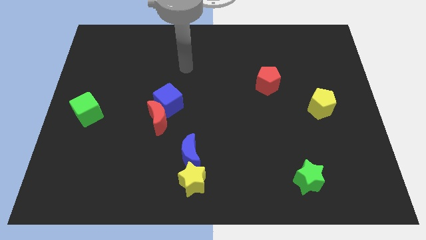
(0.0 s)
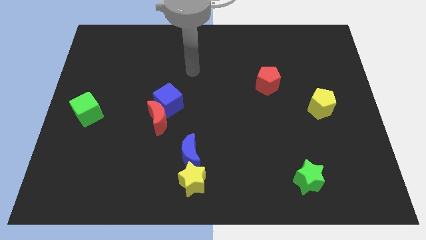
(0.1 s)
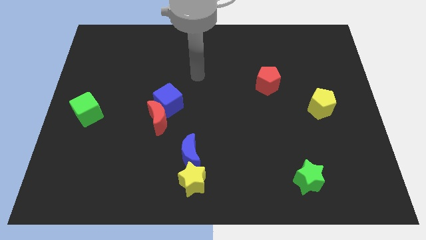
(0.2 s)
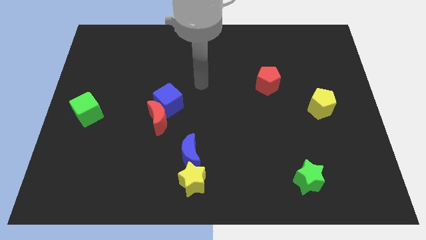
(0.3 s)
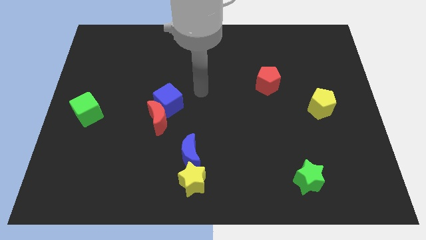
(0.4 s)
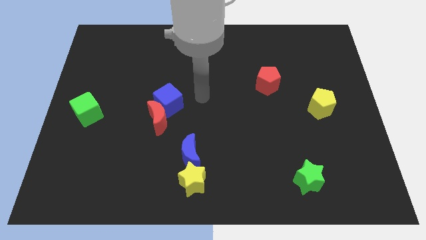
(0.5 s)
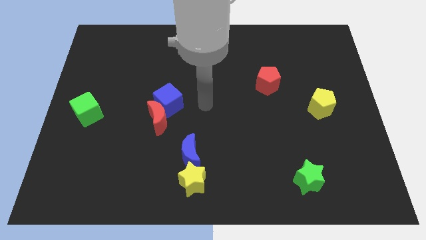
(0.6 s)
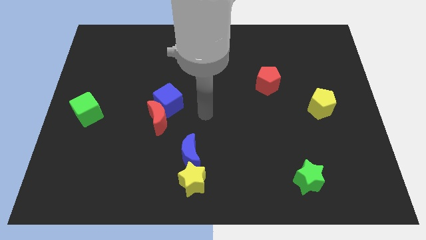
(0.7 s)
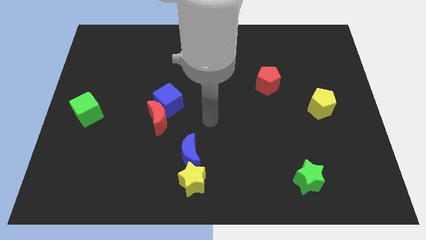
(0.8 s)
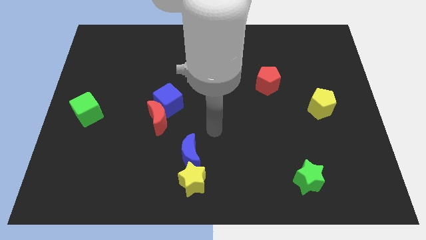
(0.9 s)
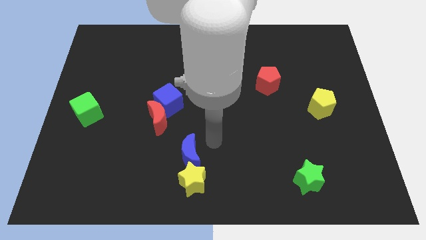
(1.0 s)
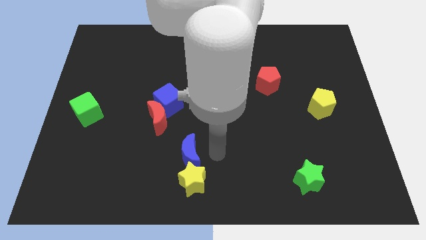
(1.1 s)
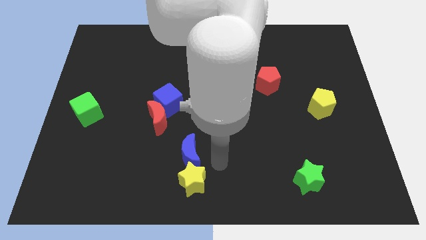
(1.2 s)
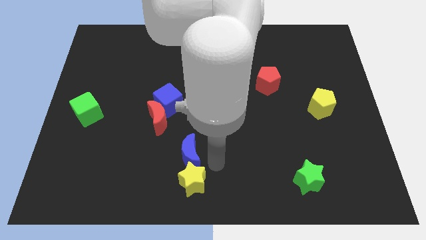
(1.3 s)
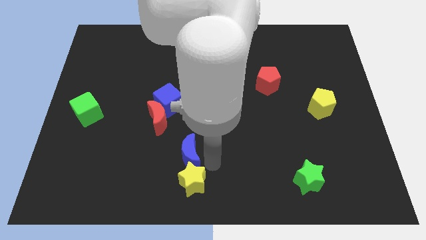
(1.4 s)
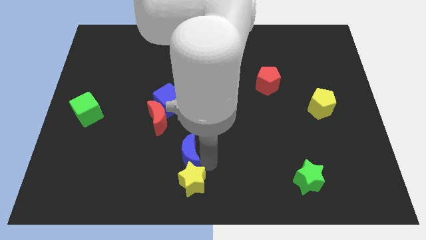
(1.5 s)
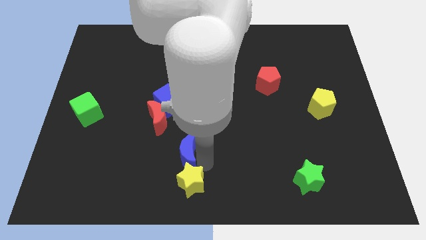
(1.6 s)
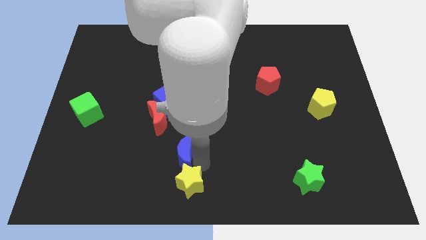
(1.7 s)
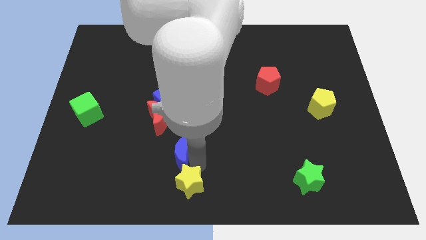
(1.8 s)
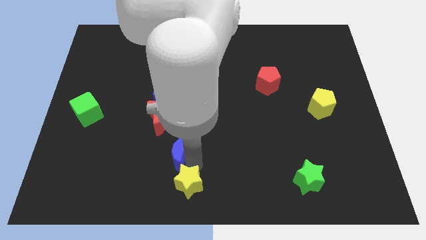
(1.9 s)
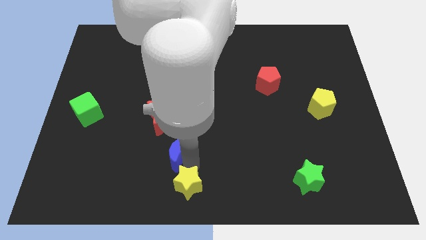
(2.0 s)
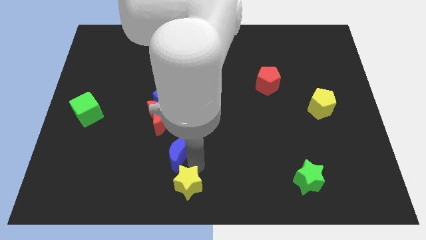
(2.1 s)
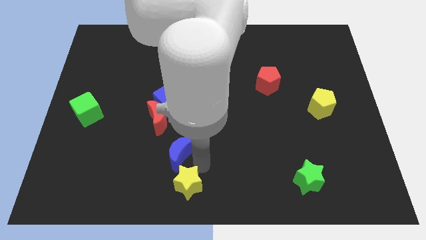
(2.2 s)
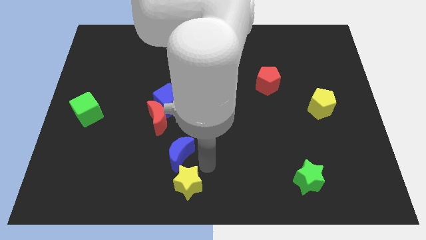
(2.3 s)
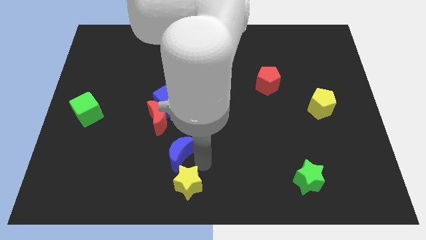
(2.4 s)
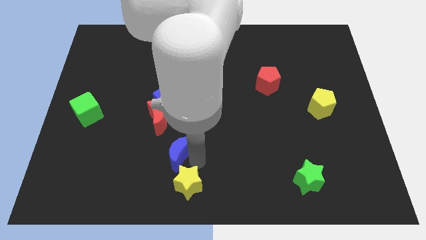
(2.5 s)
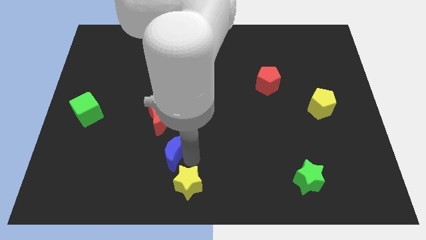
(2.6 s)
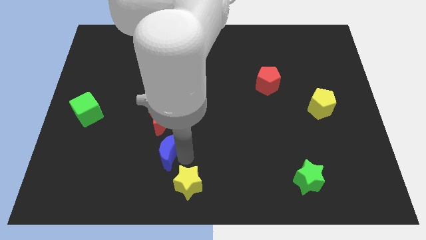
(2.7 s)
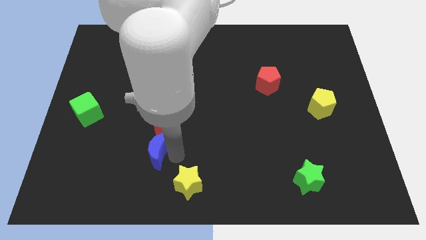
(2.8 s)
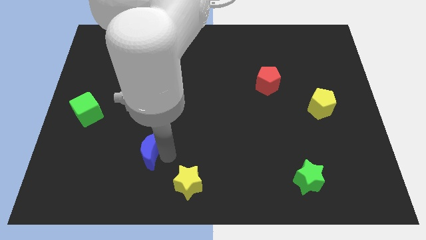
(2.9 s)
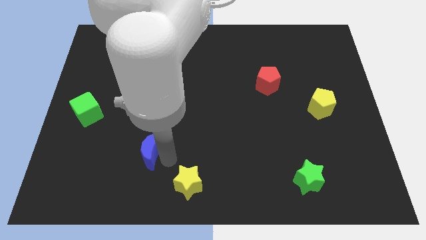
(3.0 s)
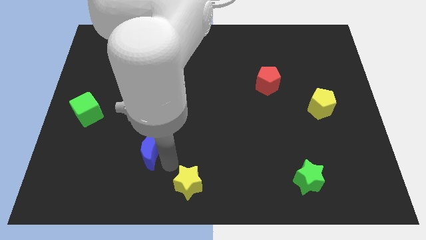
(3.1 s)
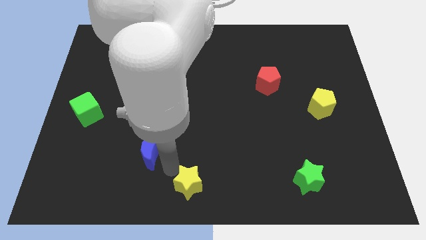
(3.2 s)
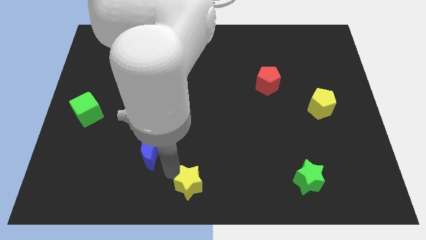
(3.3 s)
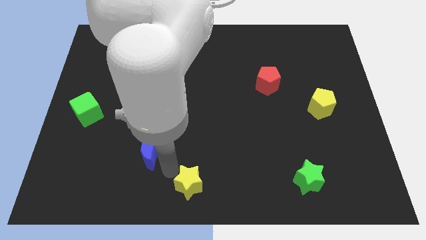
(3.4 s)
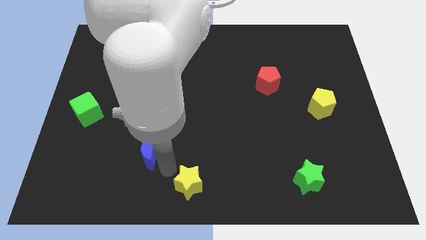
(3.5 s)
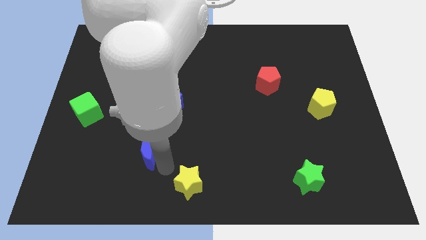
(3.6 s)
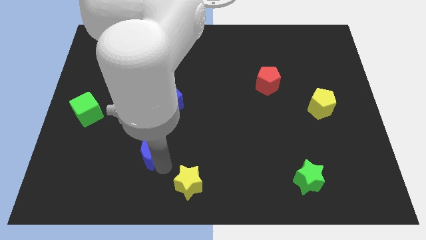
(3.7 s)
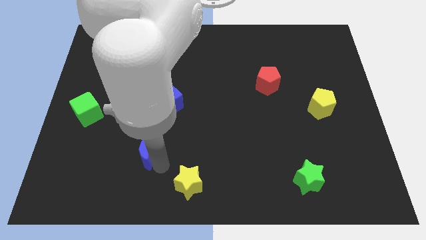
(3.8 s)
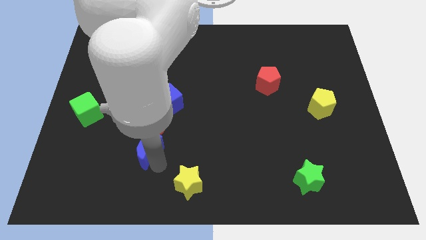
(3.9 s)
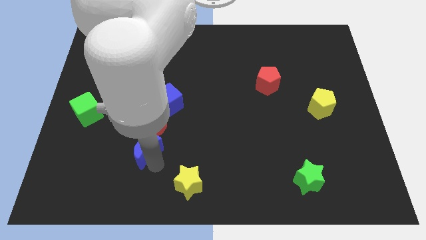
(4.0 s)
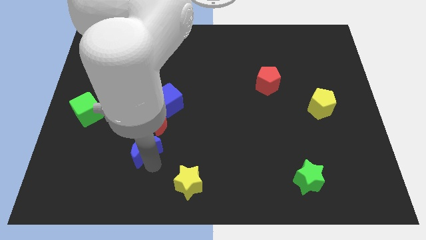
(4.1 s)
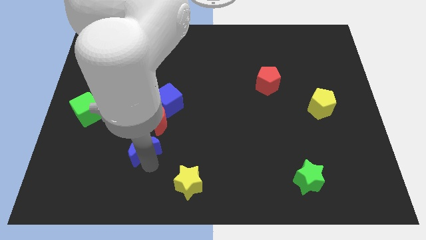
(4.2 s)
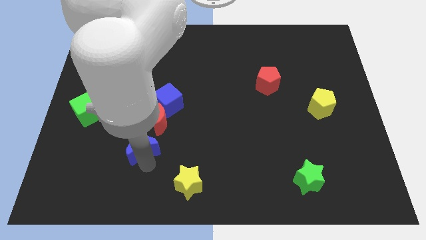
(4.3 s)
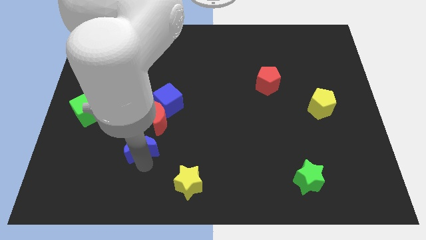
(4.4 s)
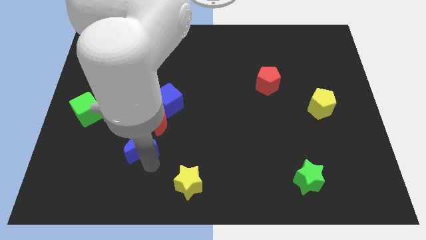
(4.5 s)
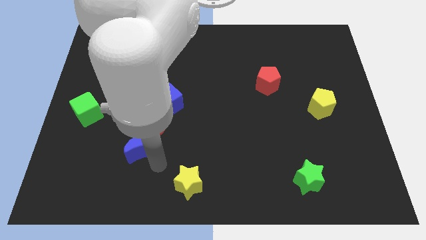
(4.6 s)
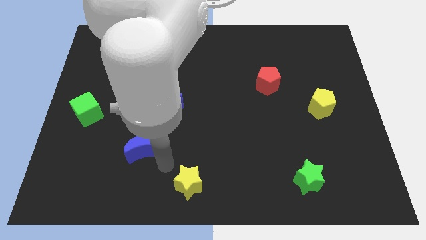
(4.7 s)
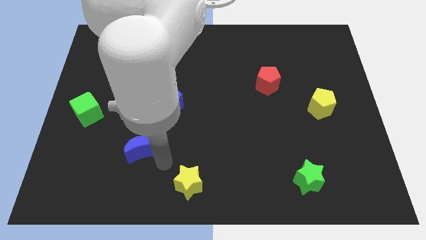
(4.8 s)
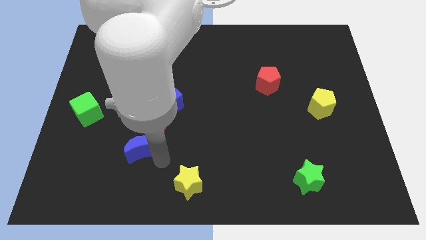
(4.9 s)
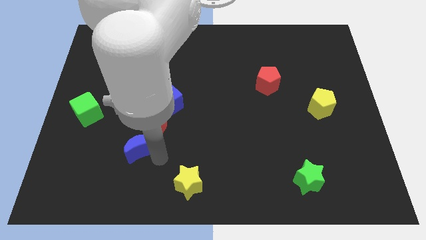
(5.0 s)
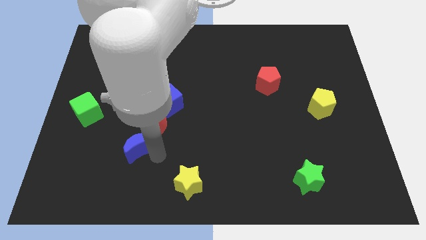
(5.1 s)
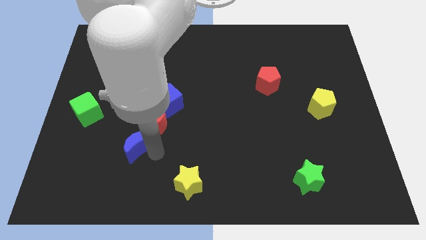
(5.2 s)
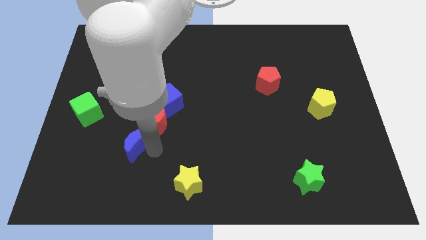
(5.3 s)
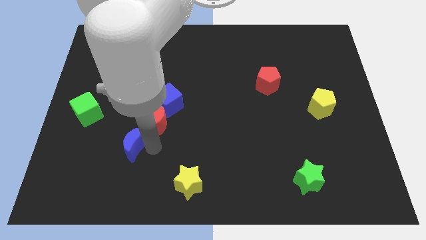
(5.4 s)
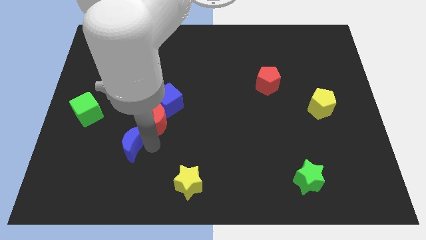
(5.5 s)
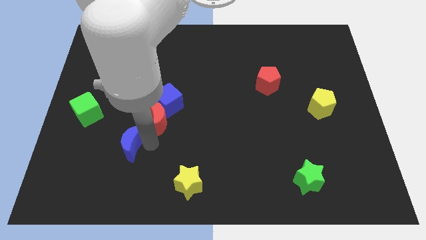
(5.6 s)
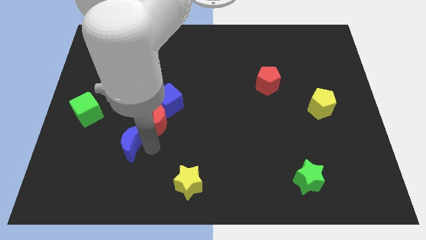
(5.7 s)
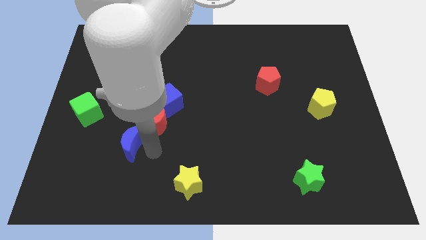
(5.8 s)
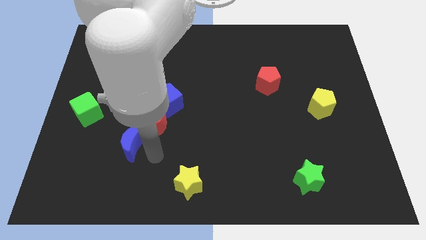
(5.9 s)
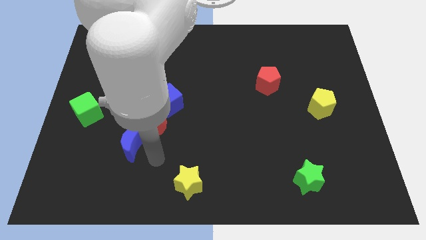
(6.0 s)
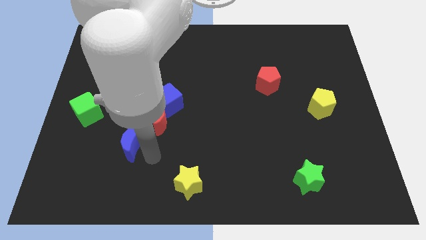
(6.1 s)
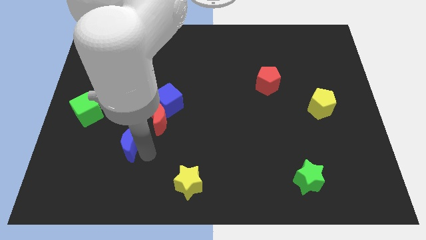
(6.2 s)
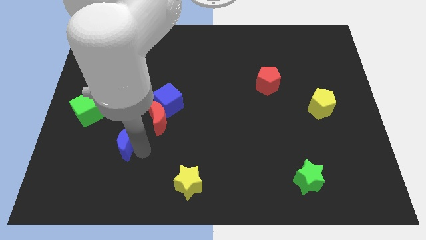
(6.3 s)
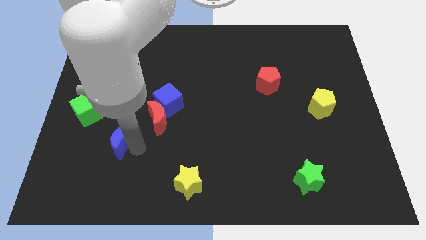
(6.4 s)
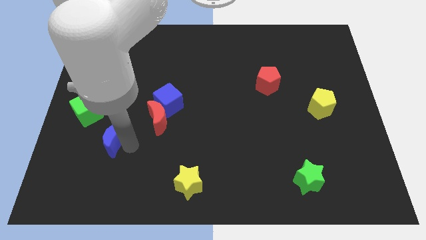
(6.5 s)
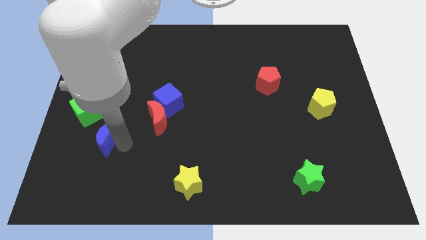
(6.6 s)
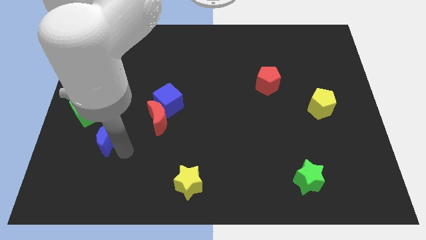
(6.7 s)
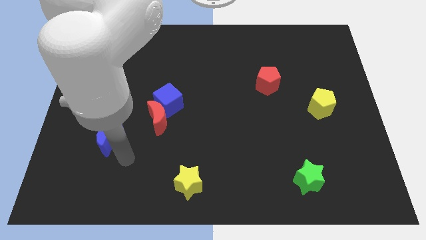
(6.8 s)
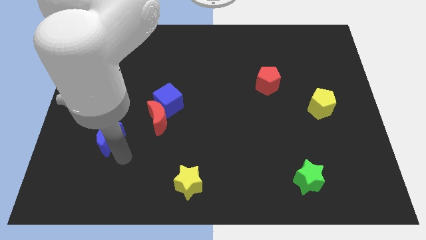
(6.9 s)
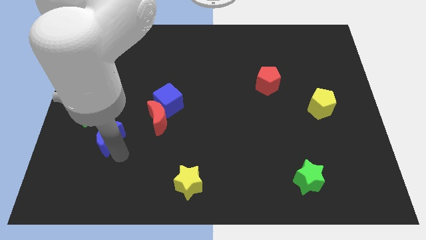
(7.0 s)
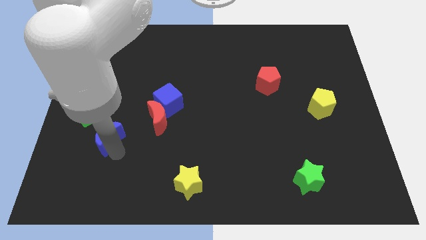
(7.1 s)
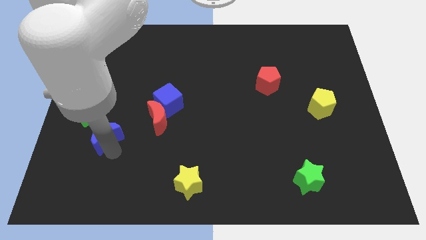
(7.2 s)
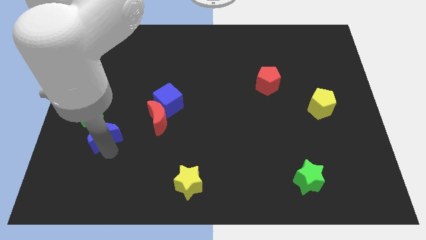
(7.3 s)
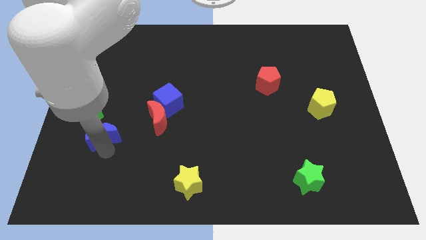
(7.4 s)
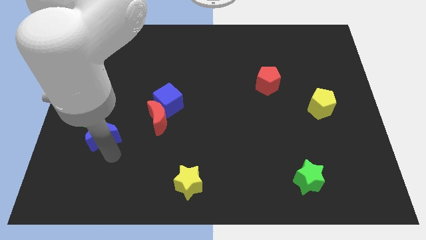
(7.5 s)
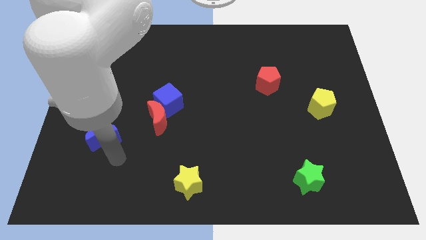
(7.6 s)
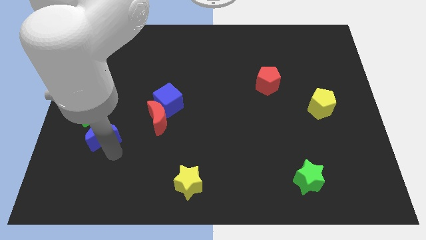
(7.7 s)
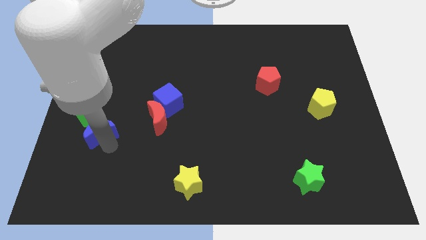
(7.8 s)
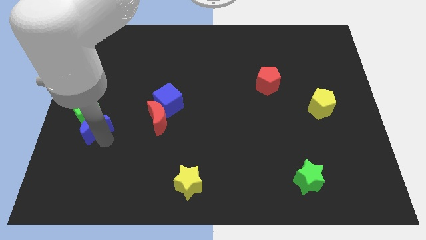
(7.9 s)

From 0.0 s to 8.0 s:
slide the blue moon to the green cube
